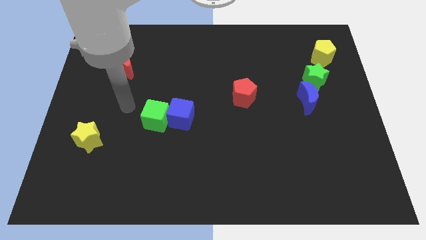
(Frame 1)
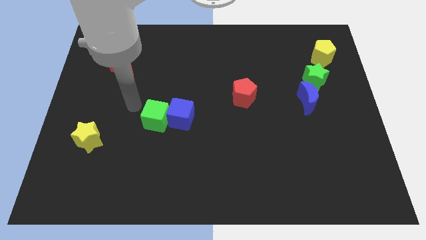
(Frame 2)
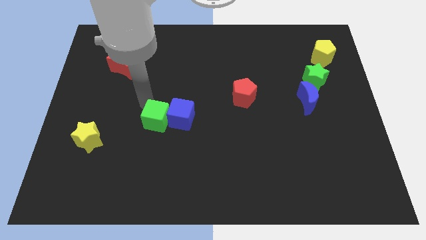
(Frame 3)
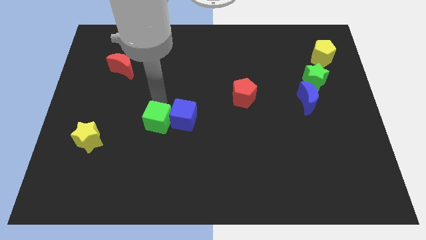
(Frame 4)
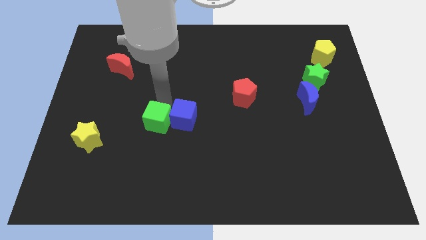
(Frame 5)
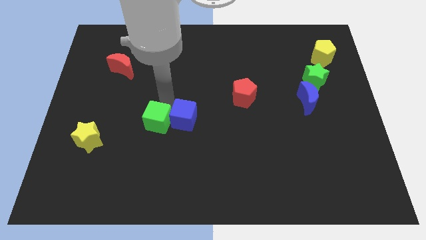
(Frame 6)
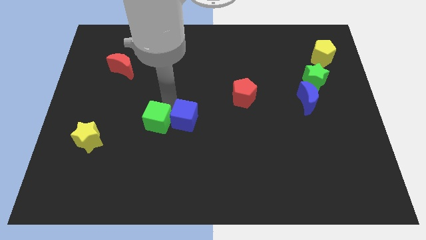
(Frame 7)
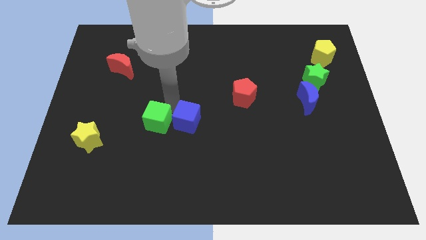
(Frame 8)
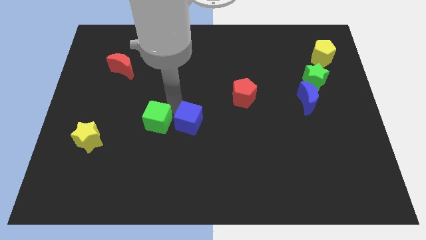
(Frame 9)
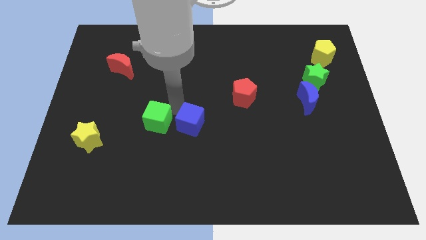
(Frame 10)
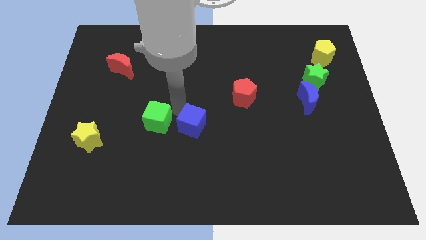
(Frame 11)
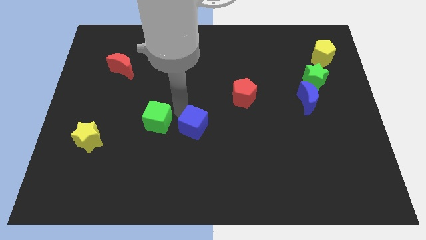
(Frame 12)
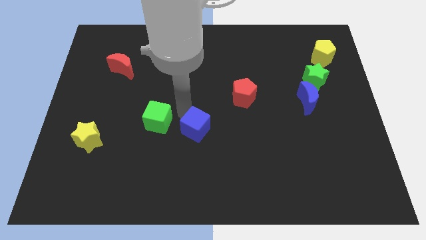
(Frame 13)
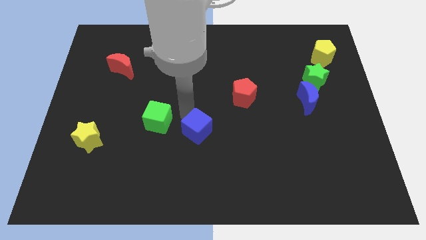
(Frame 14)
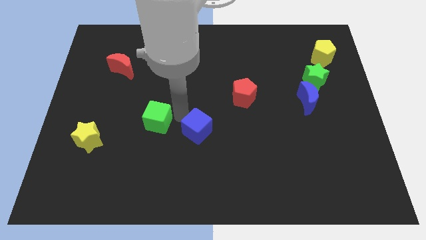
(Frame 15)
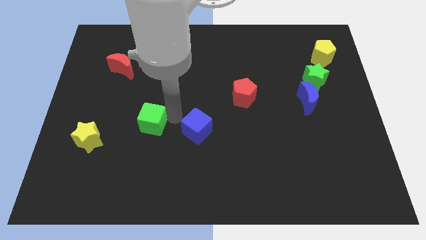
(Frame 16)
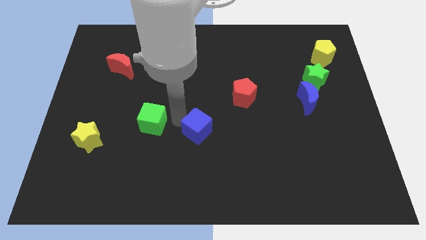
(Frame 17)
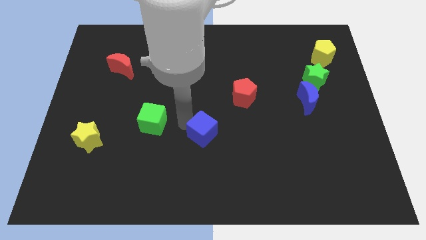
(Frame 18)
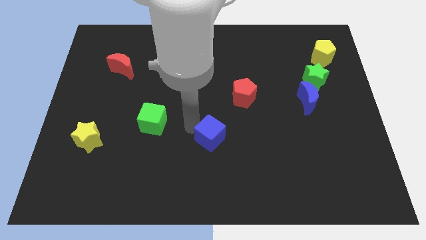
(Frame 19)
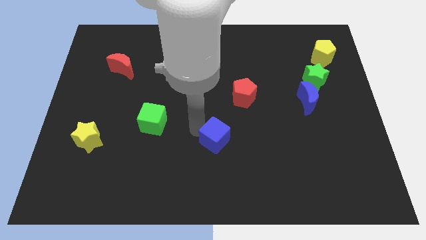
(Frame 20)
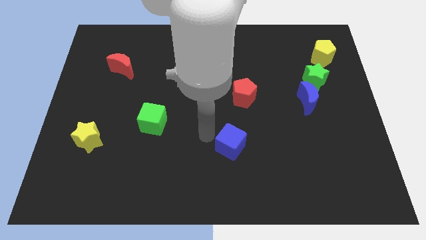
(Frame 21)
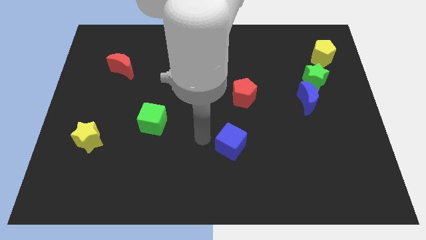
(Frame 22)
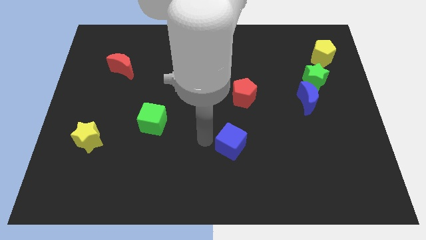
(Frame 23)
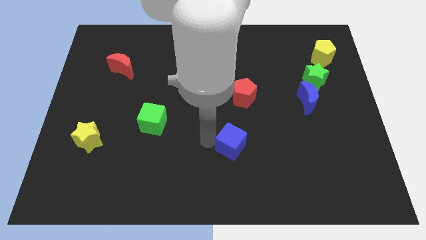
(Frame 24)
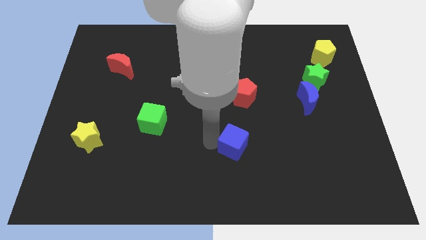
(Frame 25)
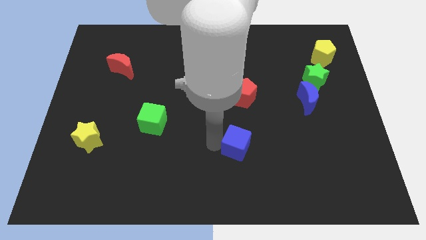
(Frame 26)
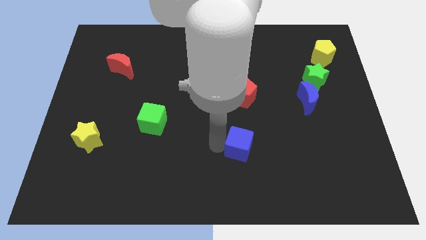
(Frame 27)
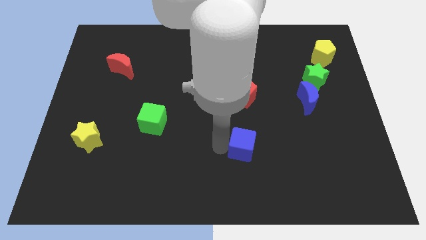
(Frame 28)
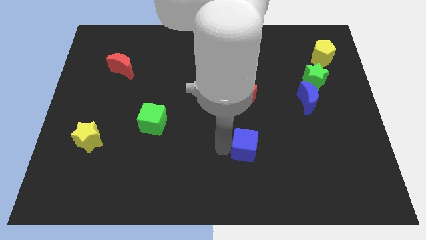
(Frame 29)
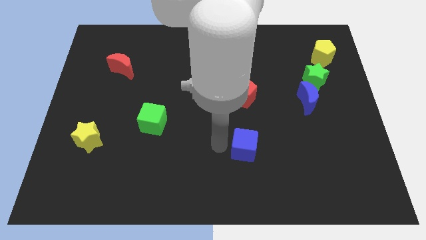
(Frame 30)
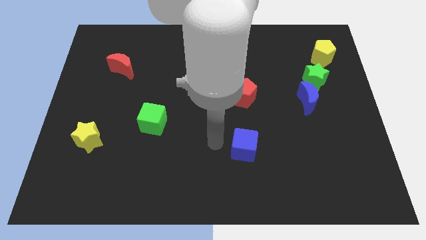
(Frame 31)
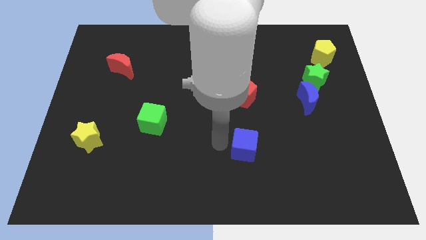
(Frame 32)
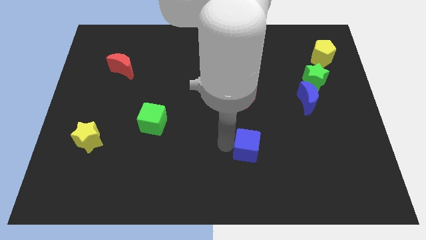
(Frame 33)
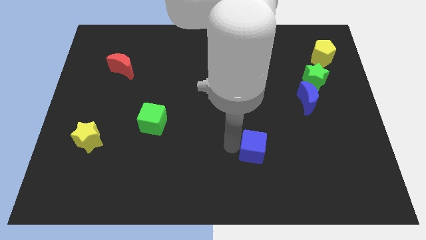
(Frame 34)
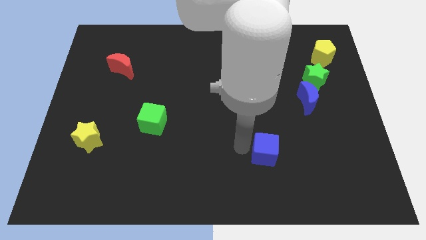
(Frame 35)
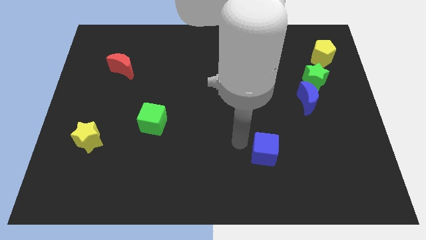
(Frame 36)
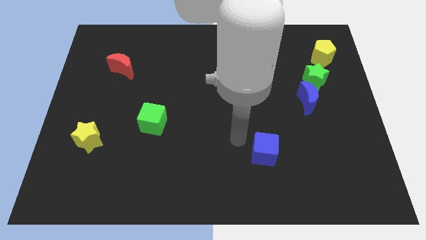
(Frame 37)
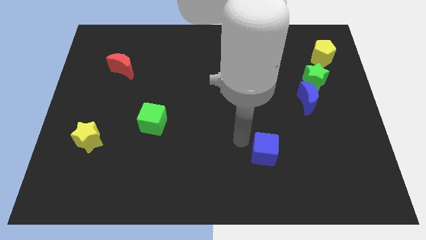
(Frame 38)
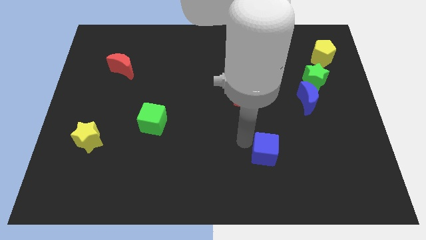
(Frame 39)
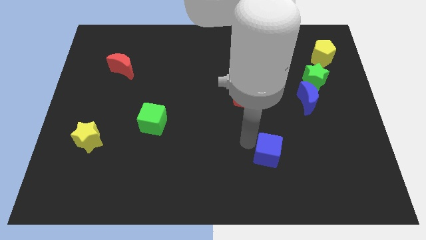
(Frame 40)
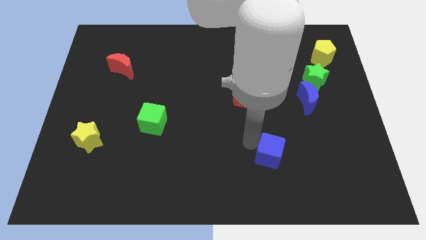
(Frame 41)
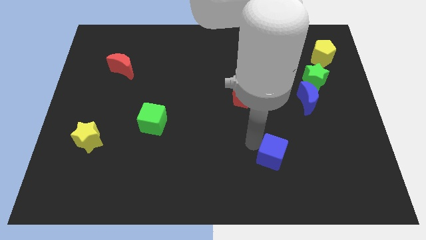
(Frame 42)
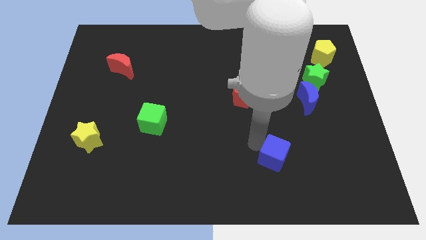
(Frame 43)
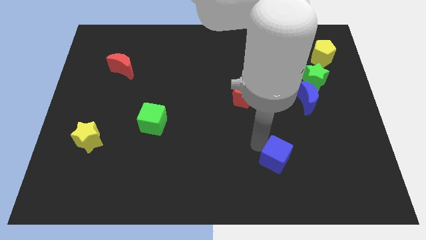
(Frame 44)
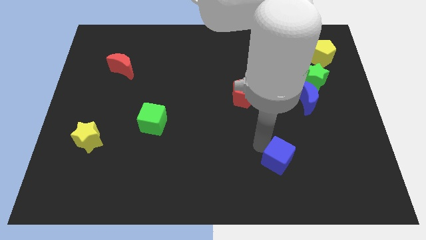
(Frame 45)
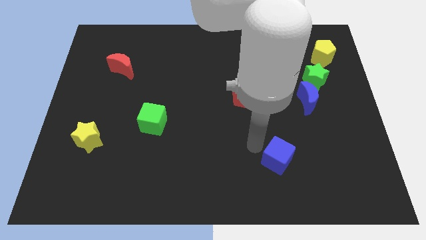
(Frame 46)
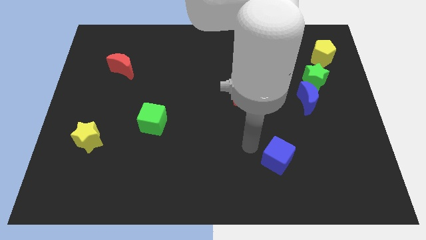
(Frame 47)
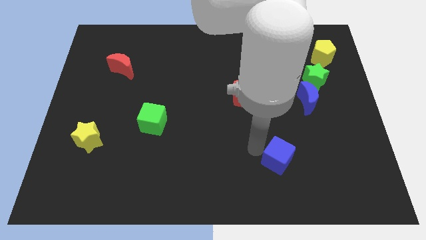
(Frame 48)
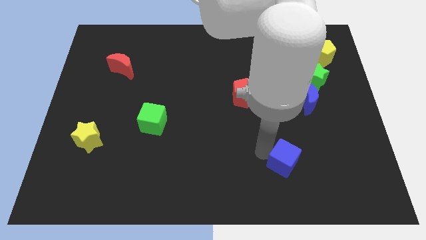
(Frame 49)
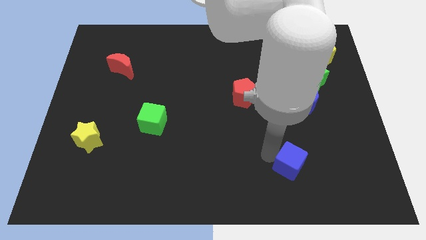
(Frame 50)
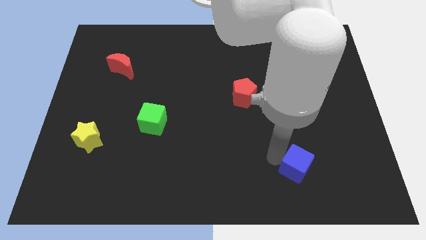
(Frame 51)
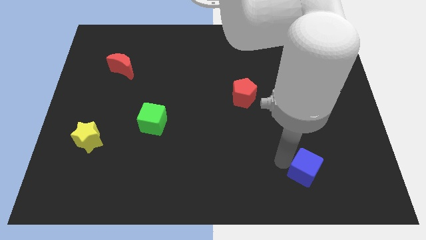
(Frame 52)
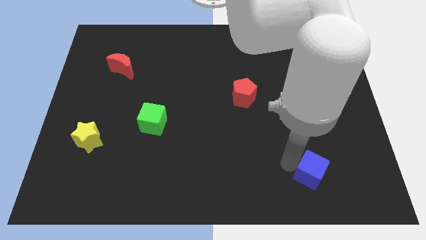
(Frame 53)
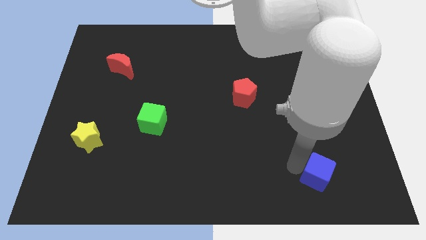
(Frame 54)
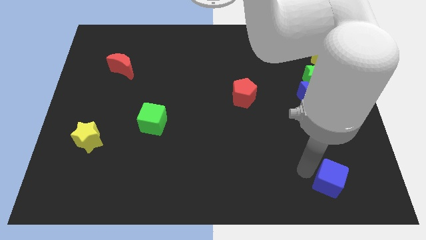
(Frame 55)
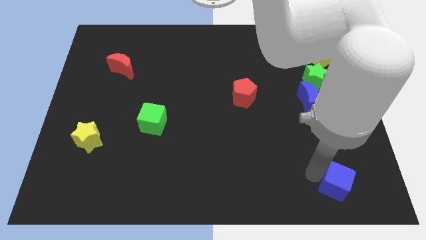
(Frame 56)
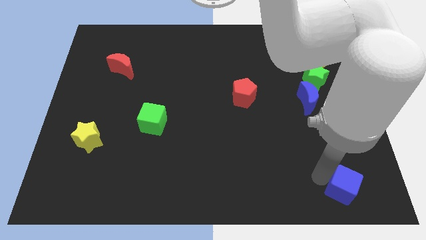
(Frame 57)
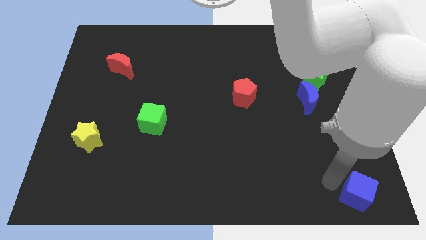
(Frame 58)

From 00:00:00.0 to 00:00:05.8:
move the blue cube to the bottom right of the board
